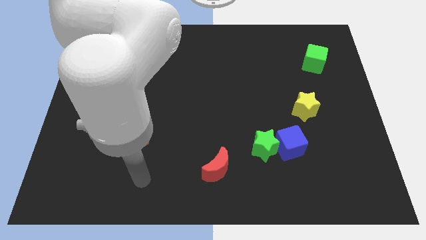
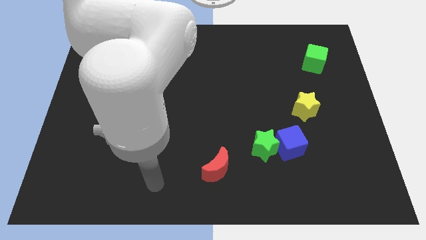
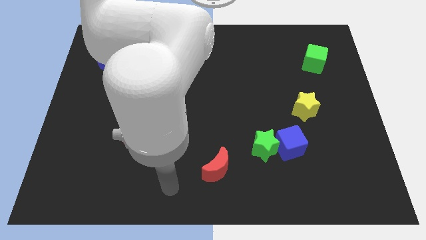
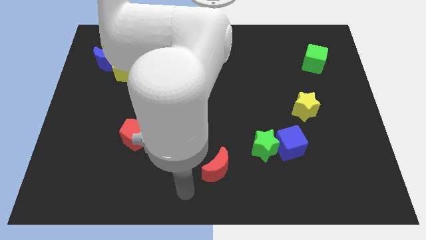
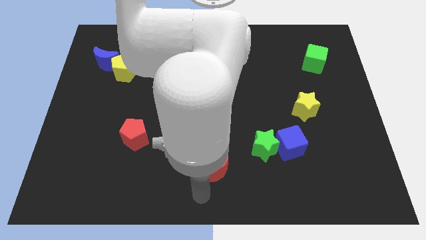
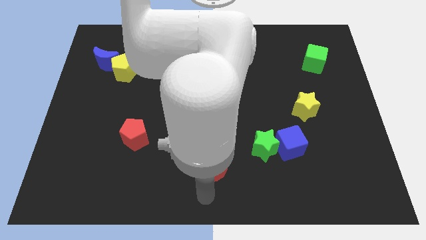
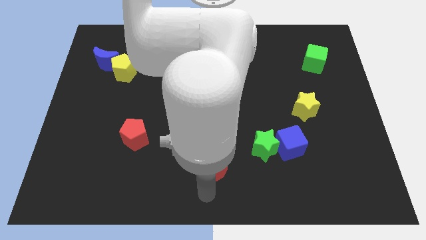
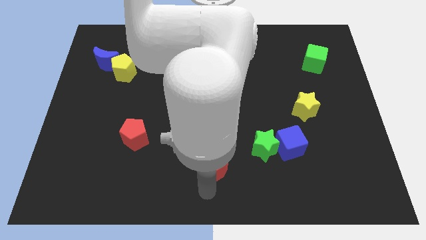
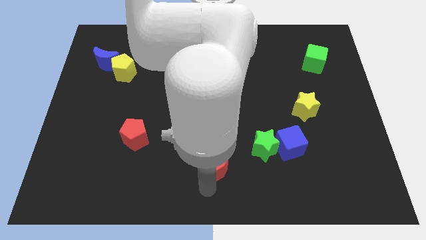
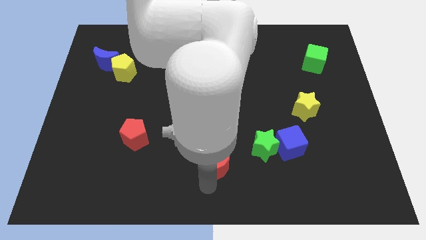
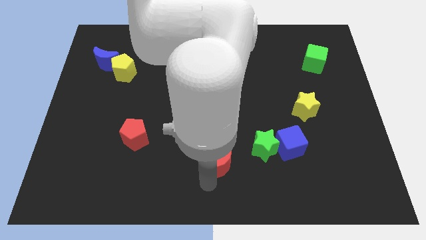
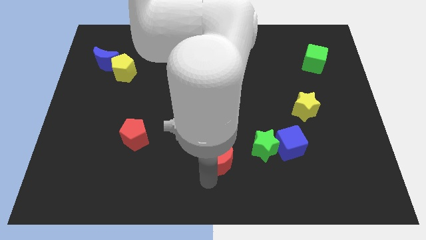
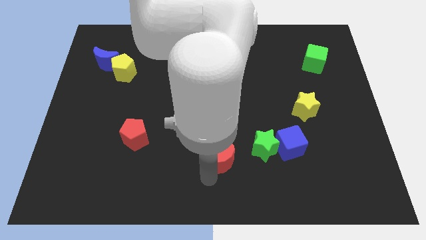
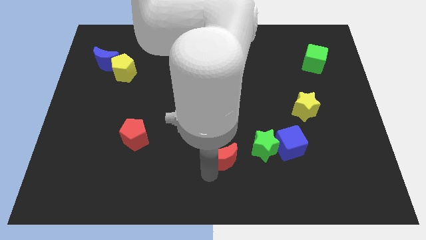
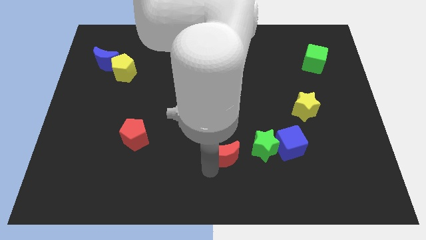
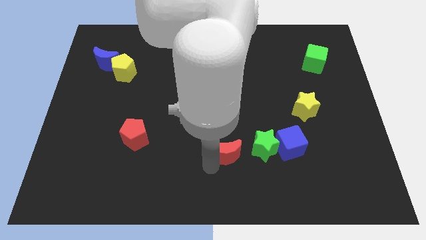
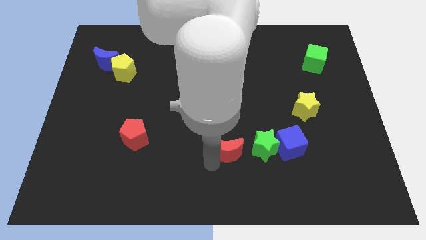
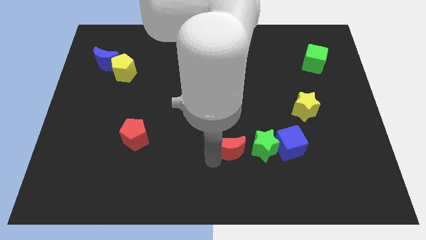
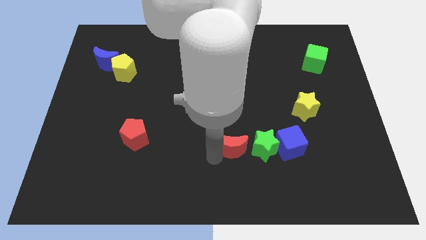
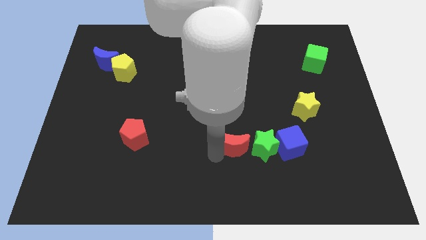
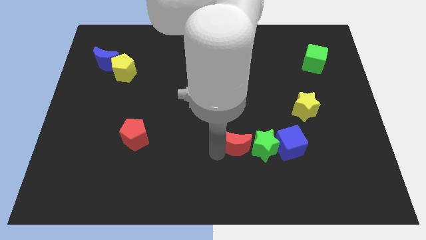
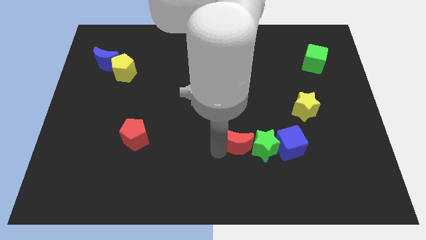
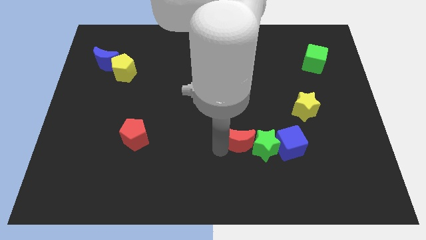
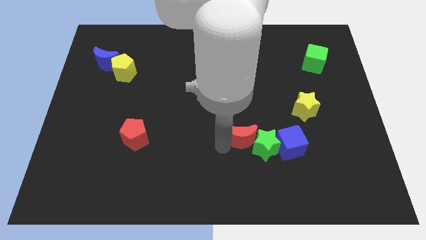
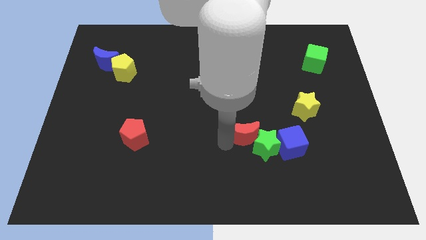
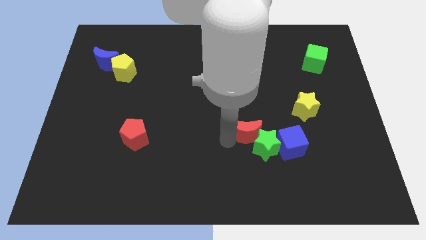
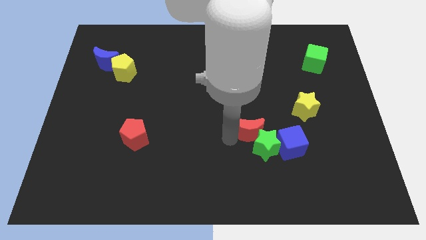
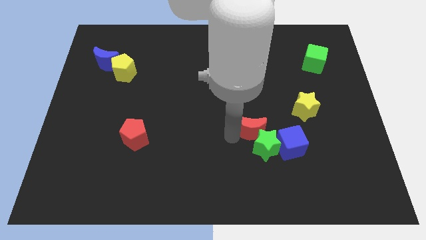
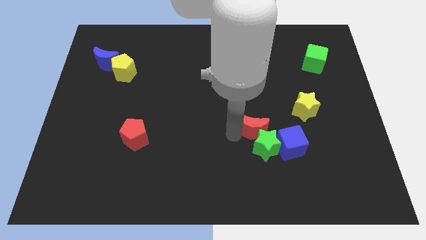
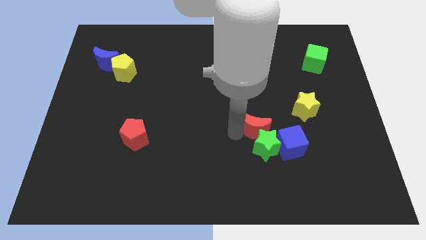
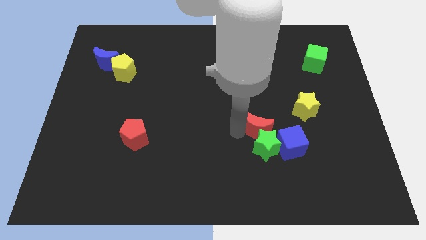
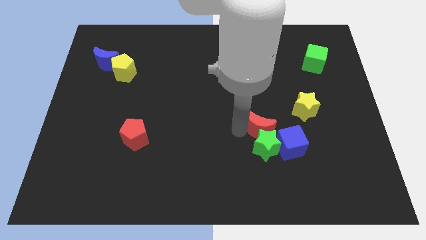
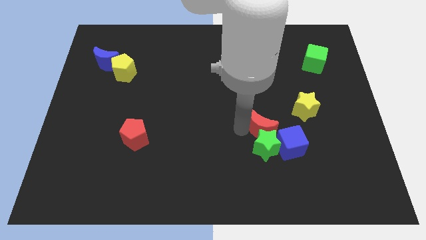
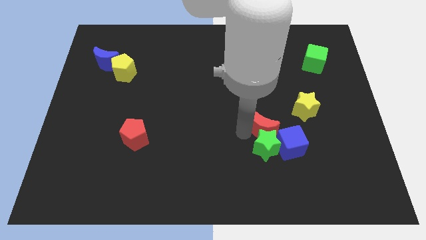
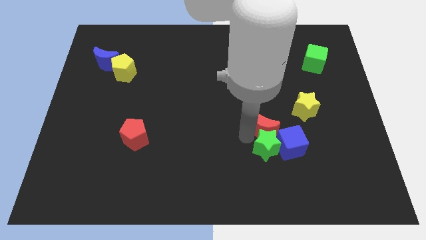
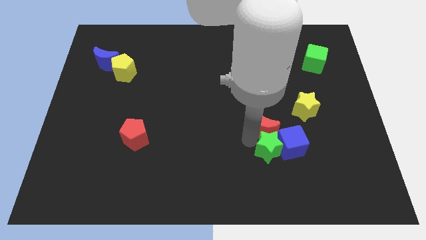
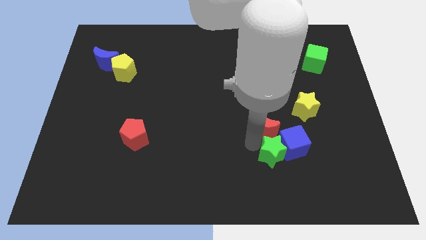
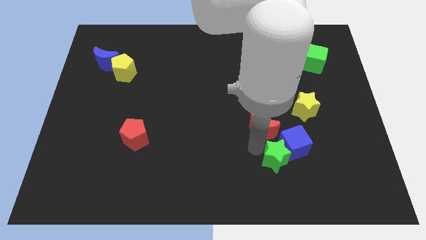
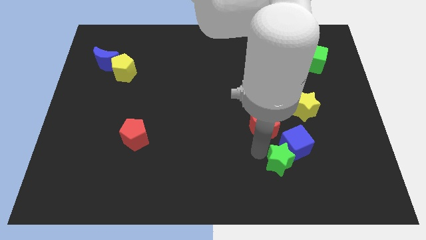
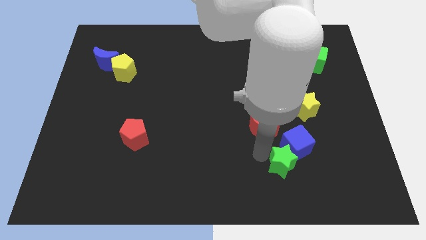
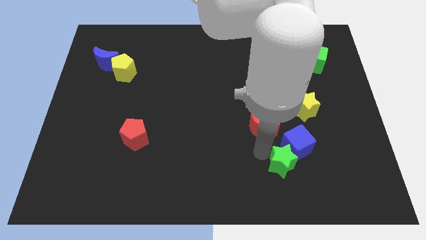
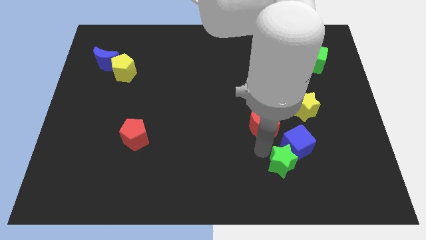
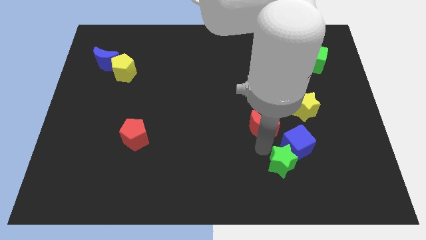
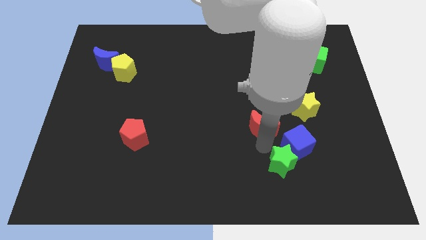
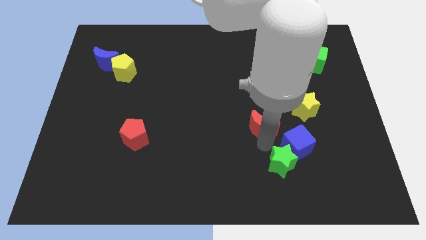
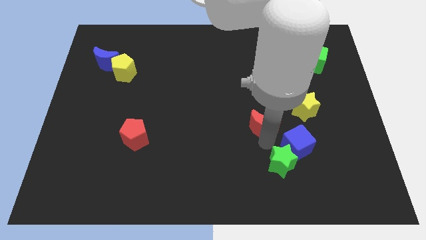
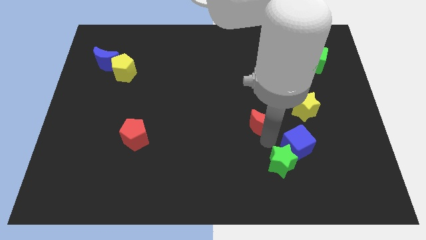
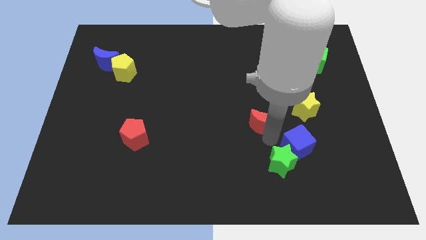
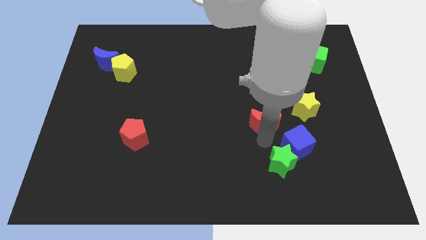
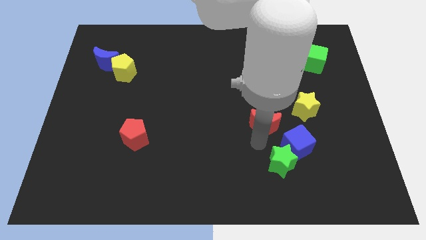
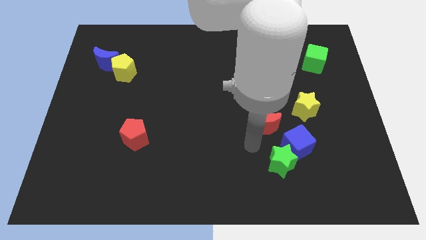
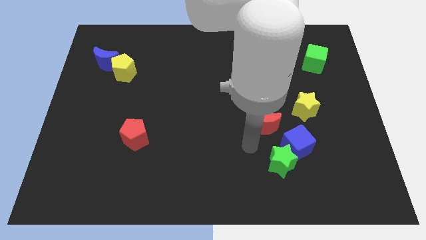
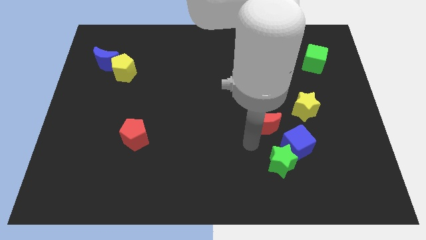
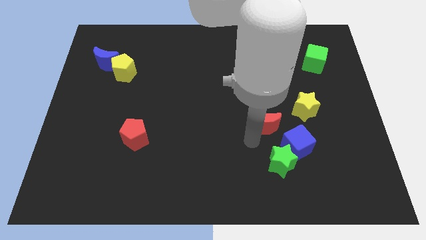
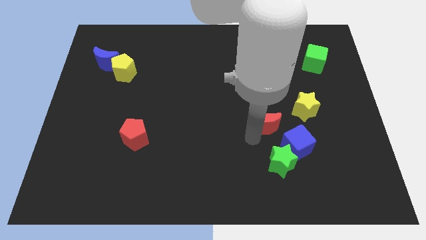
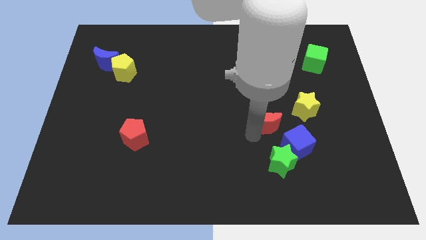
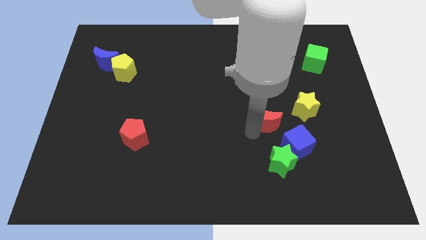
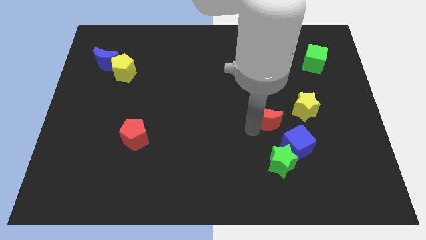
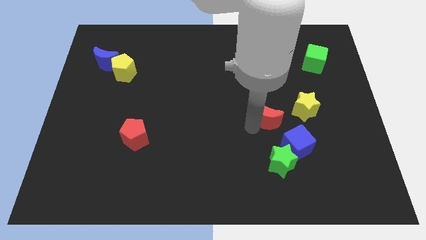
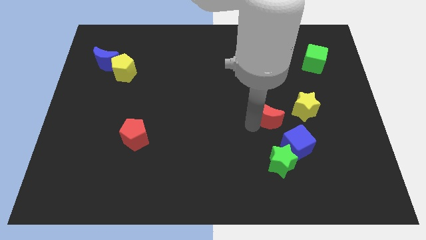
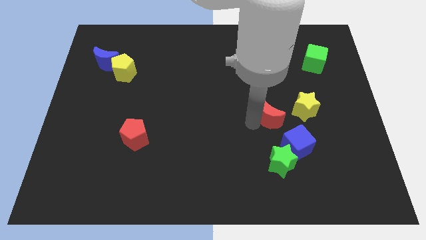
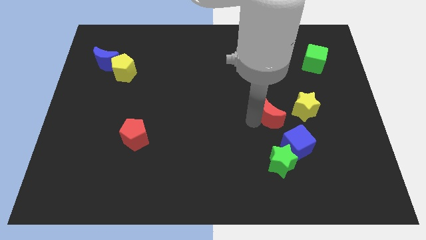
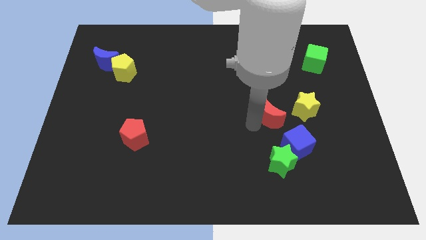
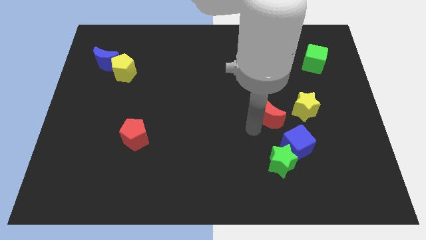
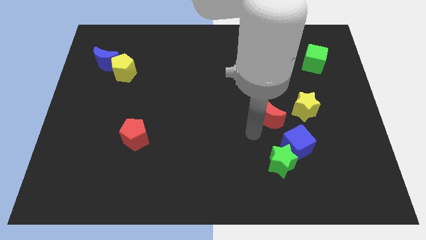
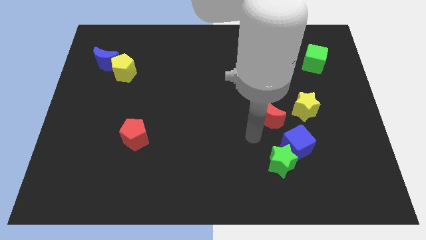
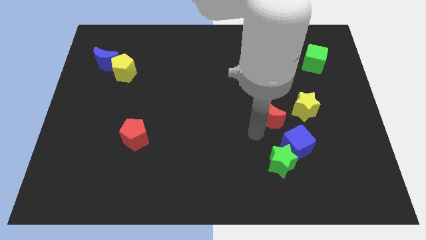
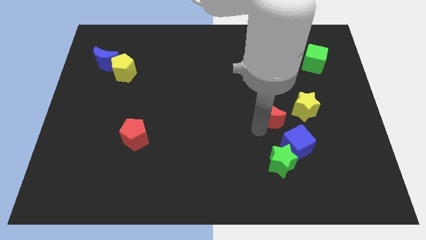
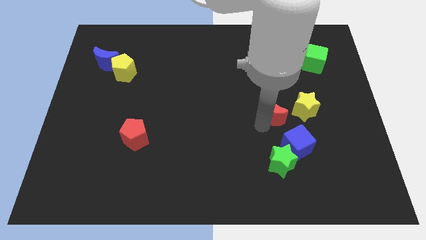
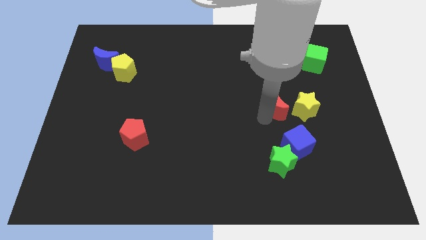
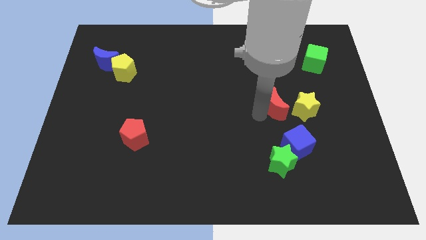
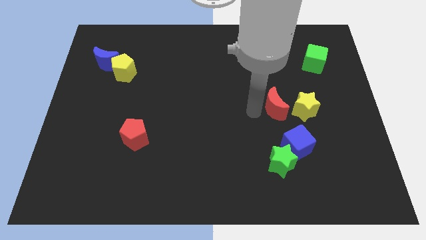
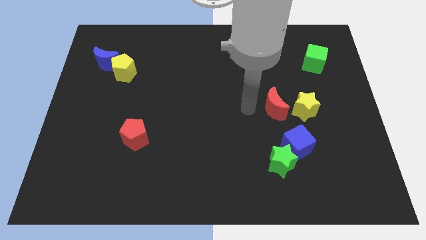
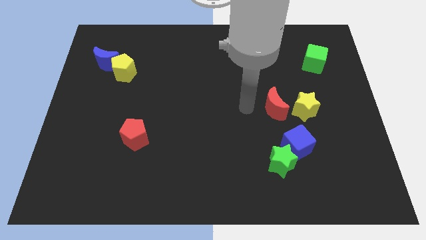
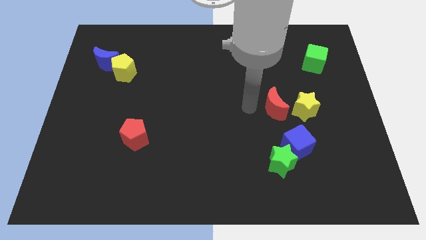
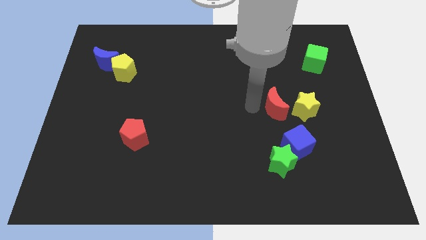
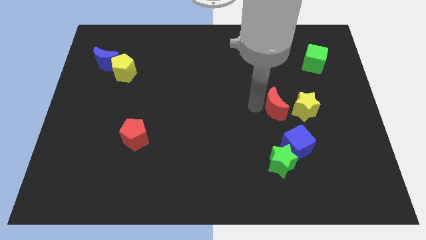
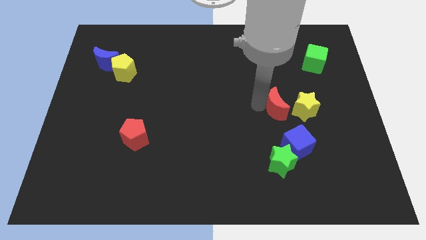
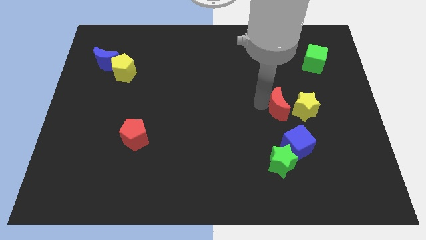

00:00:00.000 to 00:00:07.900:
move the red moon next to the yellow star
